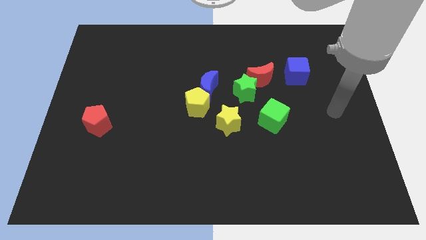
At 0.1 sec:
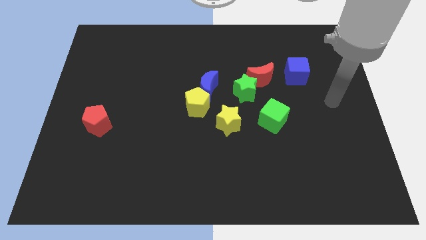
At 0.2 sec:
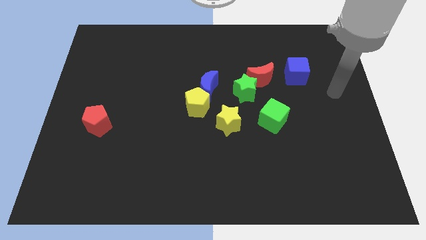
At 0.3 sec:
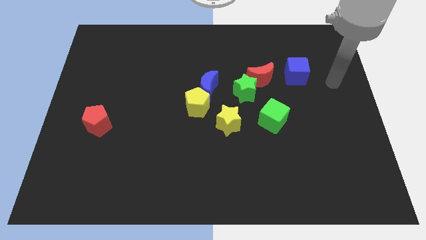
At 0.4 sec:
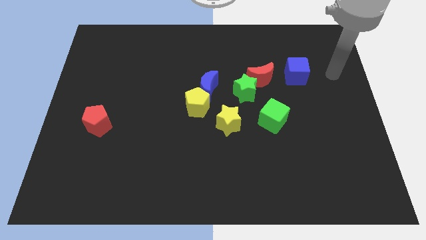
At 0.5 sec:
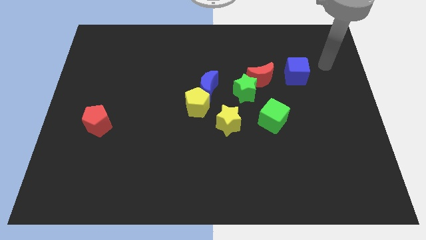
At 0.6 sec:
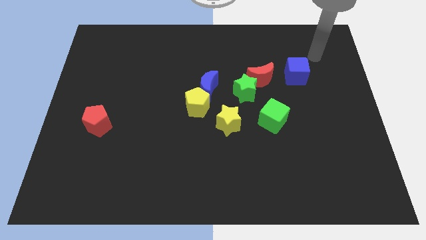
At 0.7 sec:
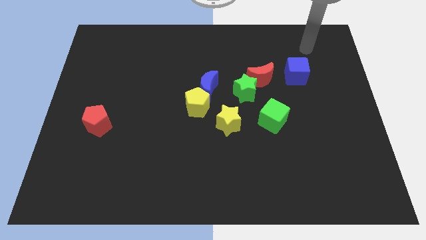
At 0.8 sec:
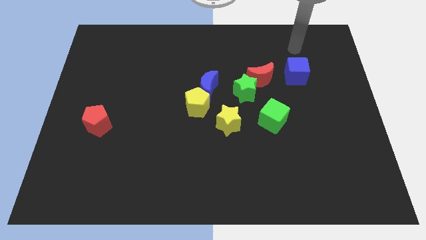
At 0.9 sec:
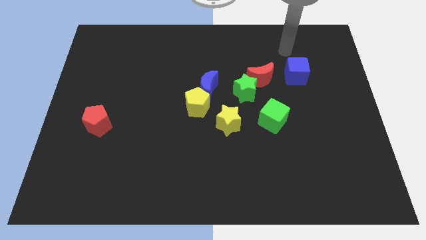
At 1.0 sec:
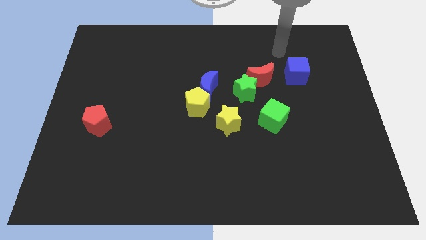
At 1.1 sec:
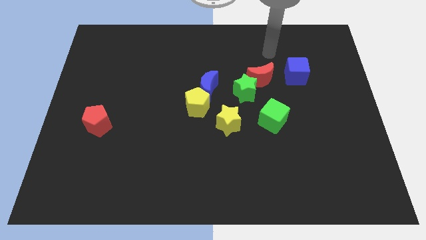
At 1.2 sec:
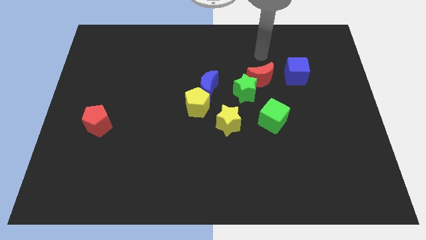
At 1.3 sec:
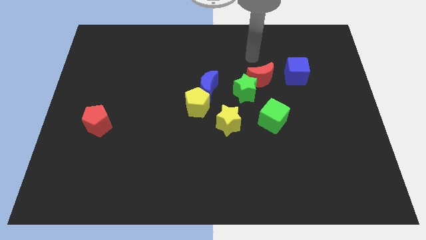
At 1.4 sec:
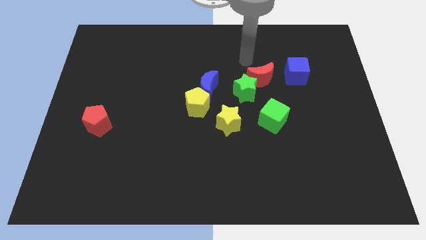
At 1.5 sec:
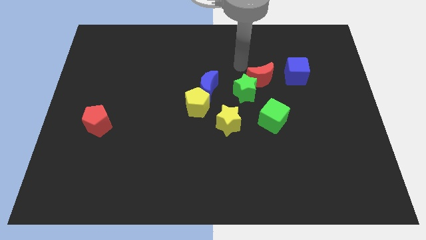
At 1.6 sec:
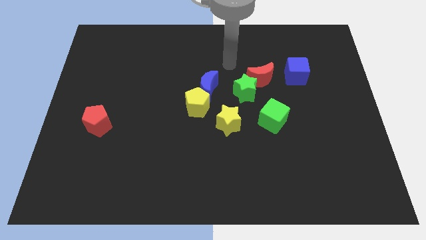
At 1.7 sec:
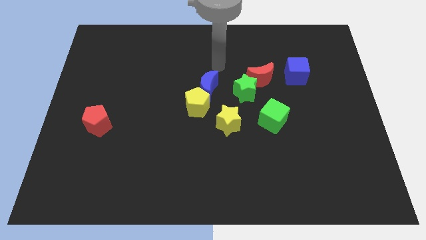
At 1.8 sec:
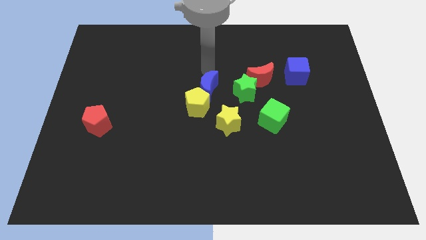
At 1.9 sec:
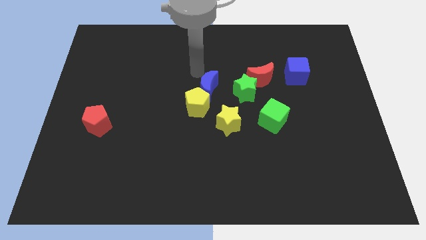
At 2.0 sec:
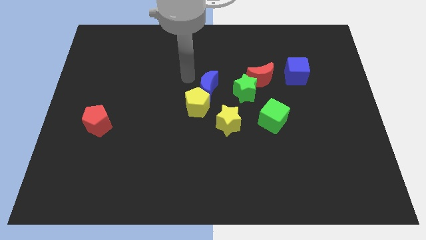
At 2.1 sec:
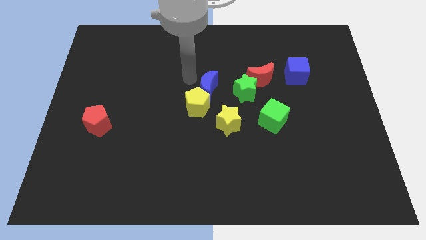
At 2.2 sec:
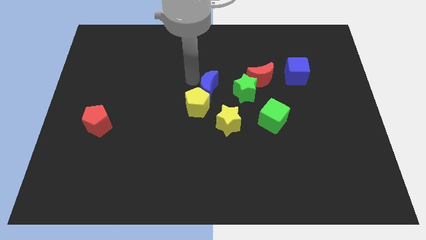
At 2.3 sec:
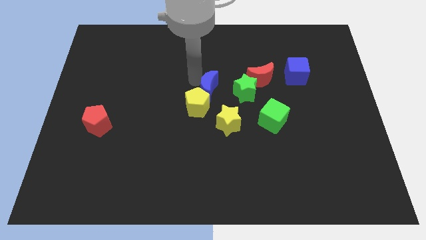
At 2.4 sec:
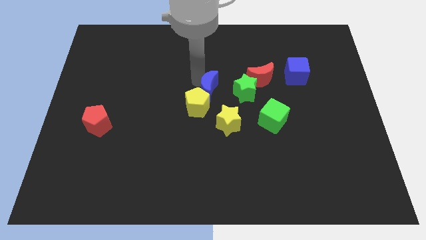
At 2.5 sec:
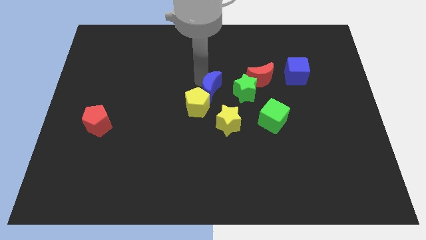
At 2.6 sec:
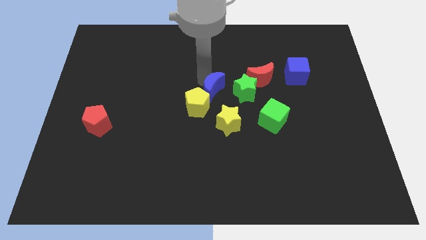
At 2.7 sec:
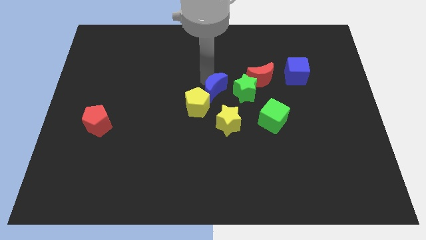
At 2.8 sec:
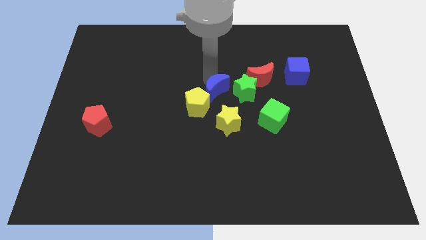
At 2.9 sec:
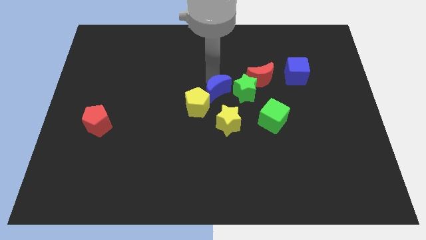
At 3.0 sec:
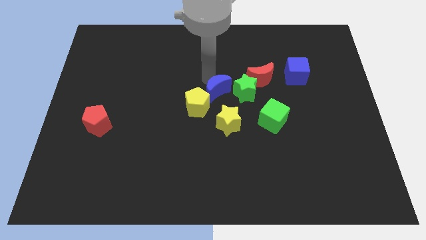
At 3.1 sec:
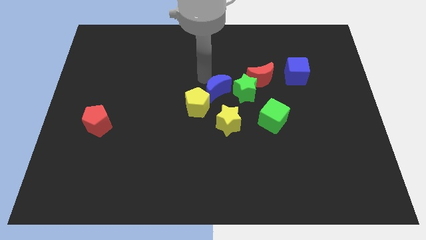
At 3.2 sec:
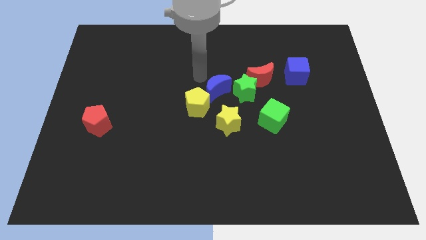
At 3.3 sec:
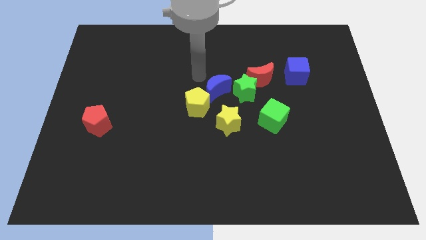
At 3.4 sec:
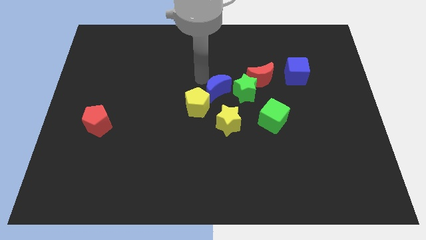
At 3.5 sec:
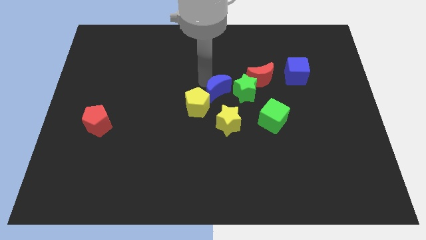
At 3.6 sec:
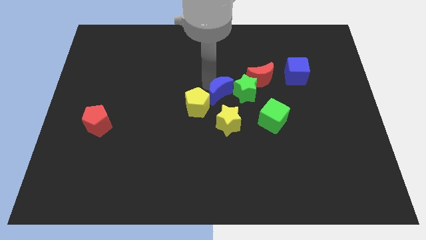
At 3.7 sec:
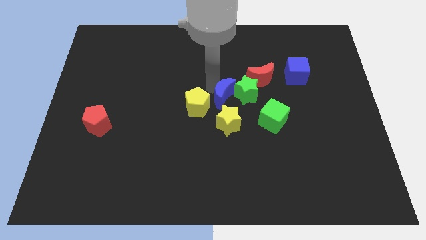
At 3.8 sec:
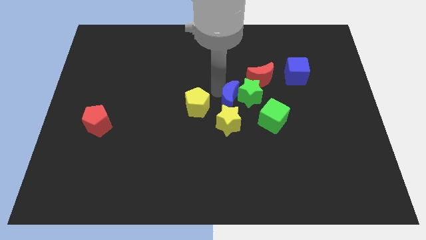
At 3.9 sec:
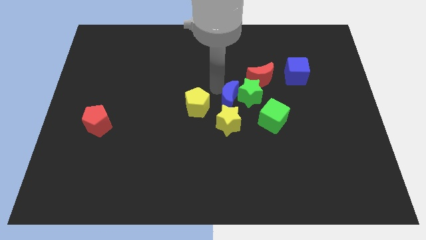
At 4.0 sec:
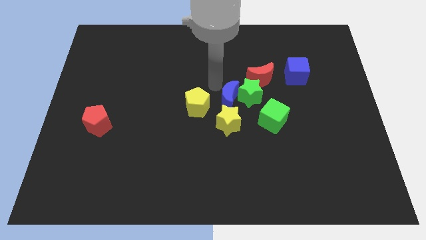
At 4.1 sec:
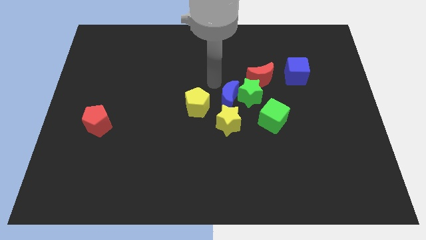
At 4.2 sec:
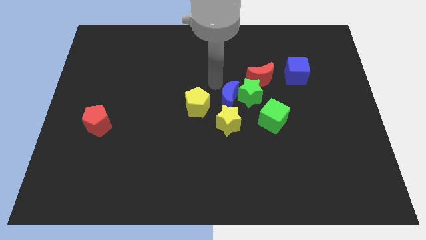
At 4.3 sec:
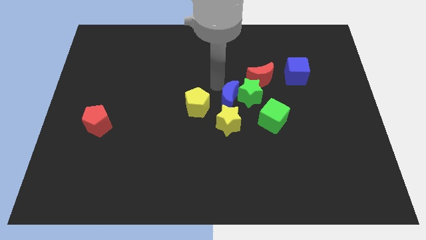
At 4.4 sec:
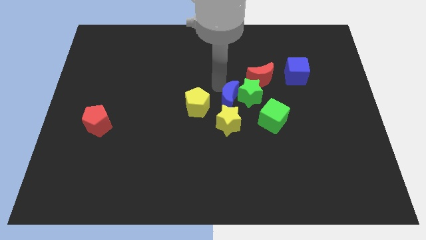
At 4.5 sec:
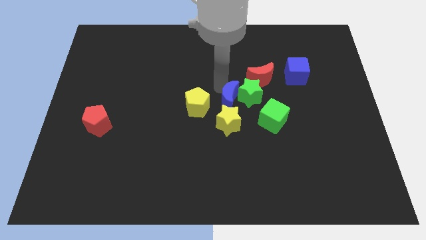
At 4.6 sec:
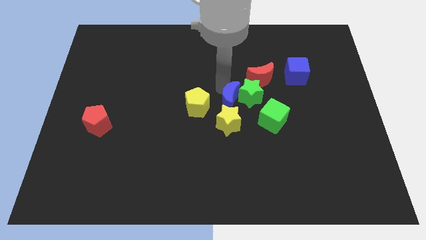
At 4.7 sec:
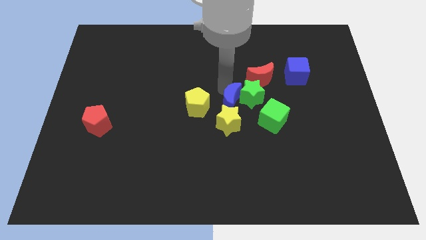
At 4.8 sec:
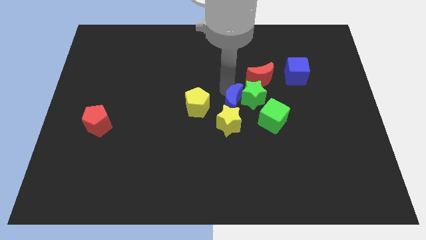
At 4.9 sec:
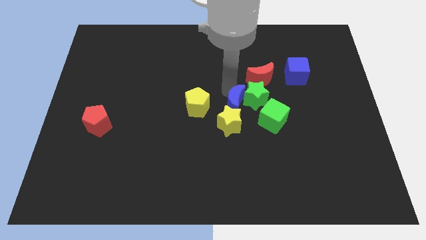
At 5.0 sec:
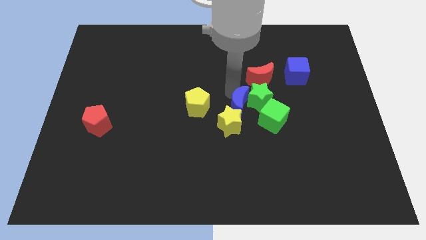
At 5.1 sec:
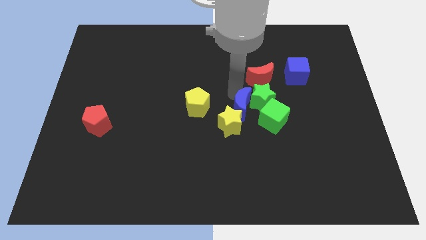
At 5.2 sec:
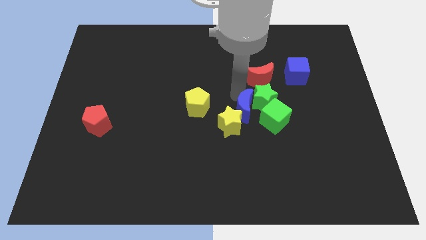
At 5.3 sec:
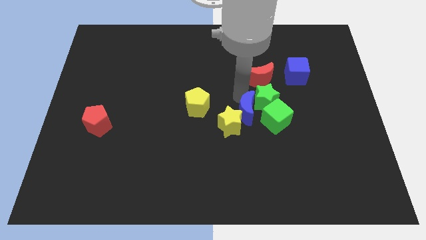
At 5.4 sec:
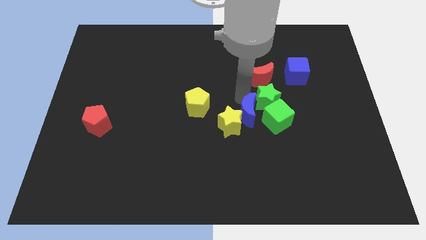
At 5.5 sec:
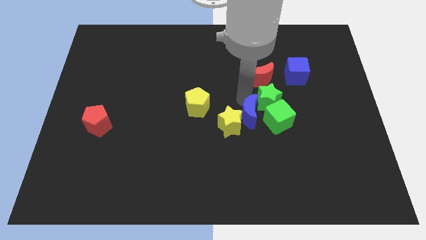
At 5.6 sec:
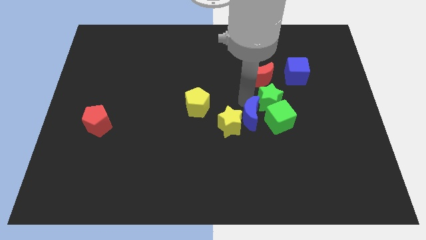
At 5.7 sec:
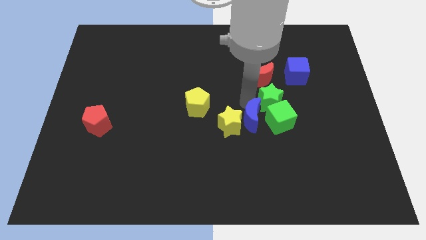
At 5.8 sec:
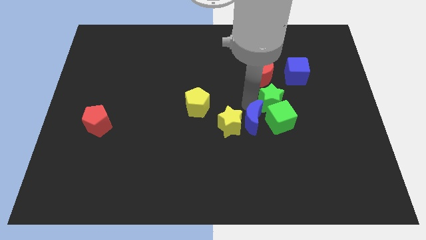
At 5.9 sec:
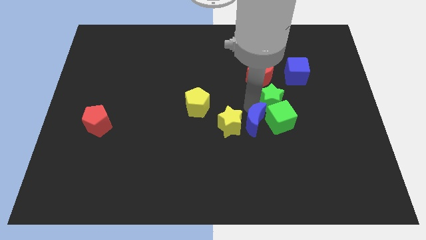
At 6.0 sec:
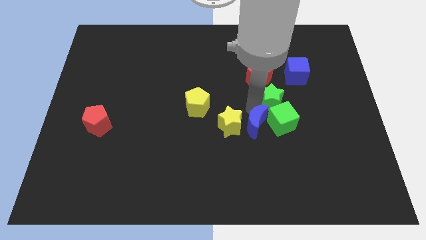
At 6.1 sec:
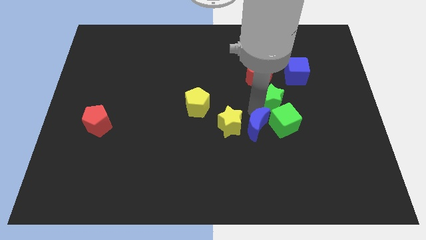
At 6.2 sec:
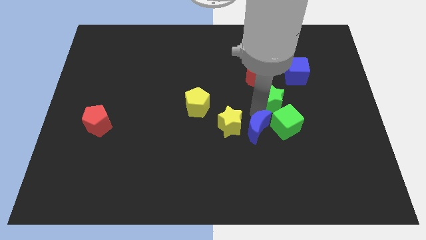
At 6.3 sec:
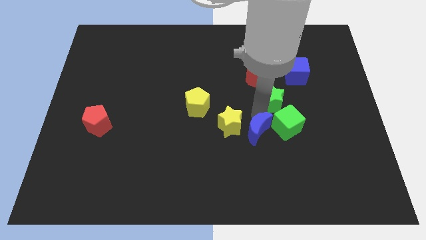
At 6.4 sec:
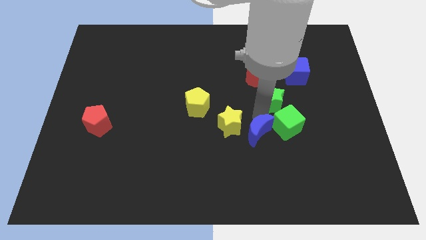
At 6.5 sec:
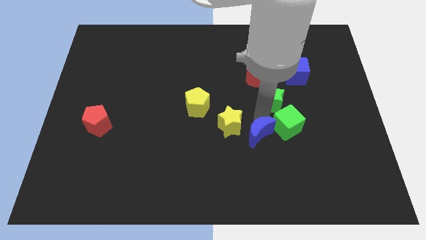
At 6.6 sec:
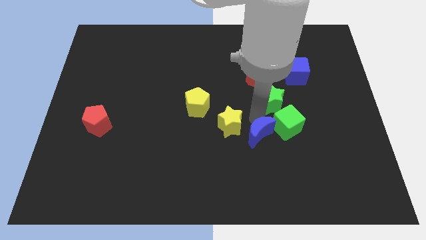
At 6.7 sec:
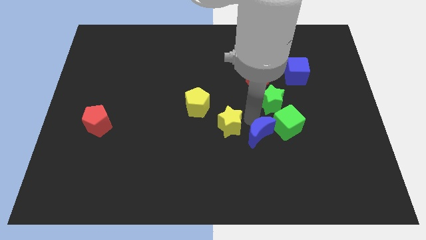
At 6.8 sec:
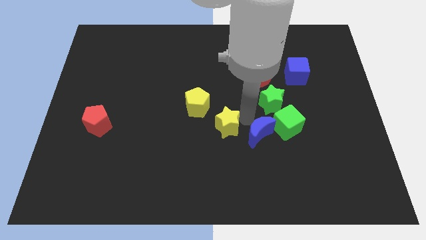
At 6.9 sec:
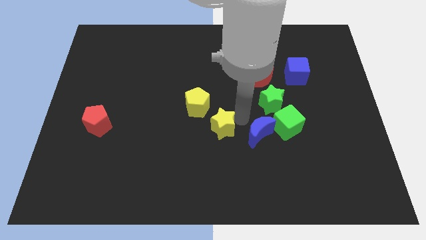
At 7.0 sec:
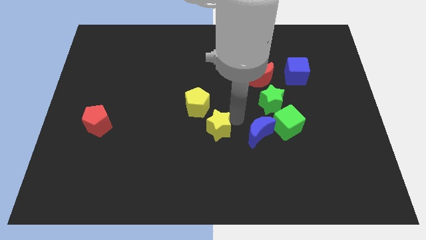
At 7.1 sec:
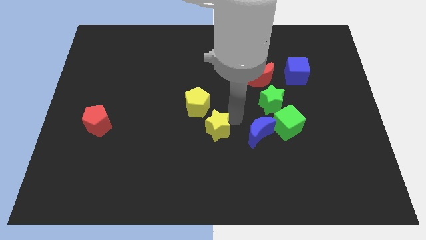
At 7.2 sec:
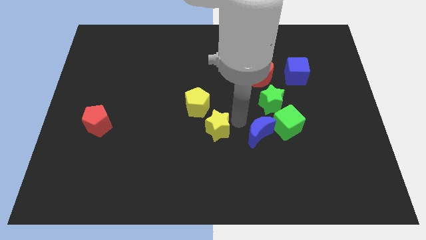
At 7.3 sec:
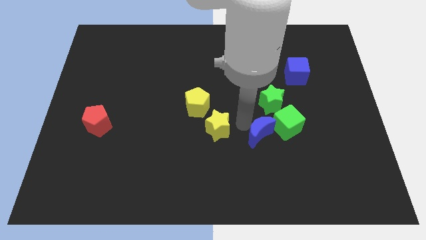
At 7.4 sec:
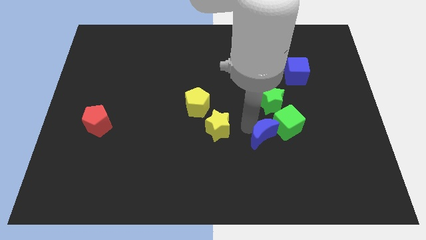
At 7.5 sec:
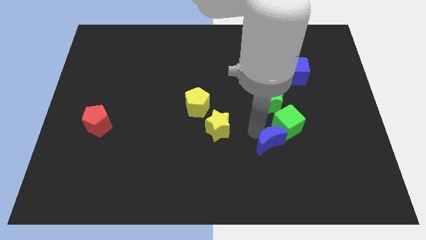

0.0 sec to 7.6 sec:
push the blue moon down and to the right diagonally

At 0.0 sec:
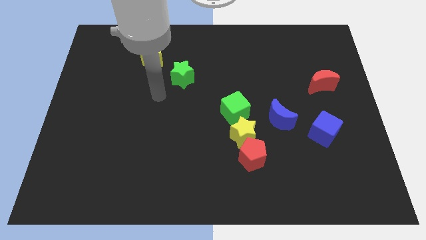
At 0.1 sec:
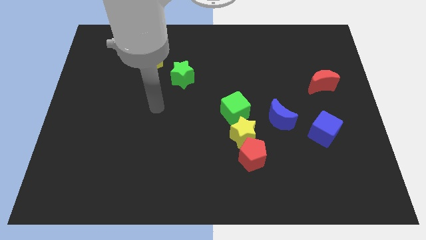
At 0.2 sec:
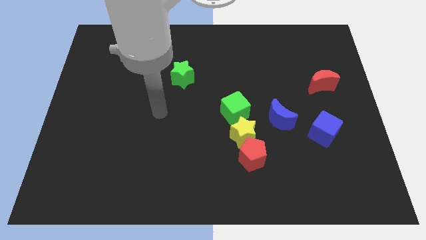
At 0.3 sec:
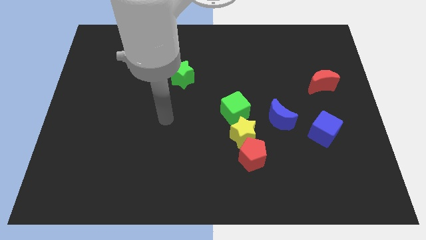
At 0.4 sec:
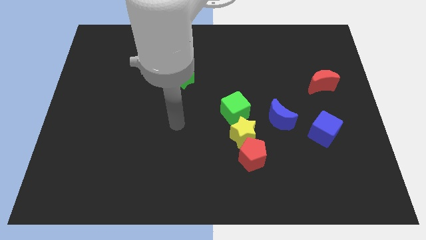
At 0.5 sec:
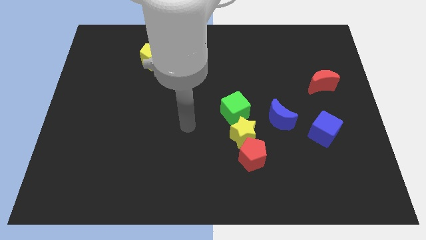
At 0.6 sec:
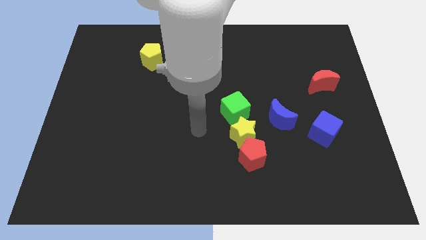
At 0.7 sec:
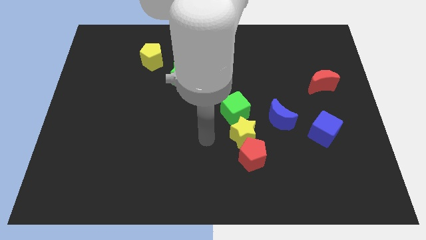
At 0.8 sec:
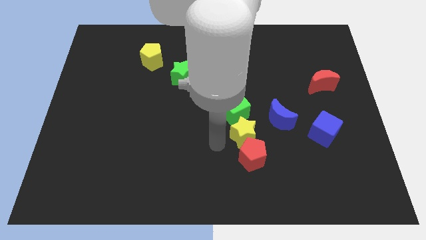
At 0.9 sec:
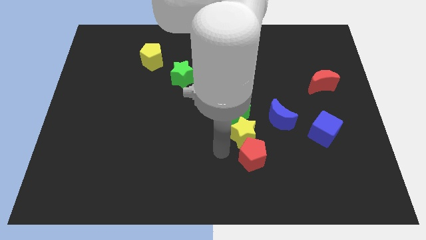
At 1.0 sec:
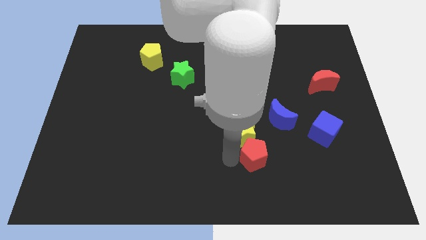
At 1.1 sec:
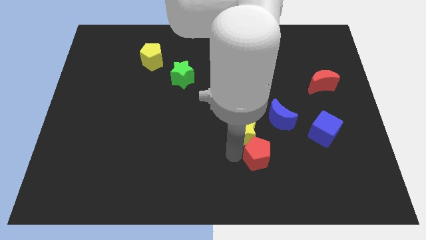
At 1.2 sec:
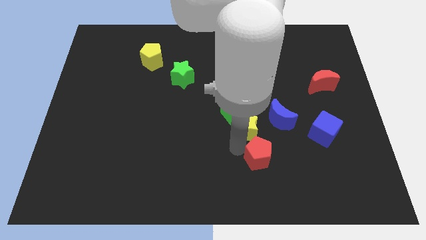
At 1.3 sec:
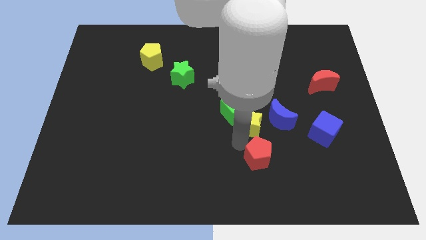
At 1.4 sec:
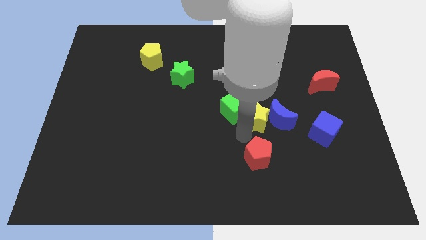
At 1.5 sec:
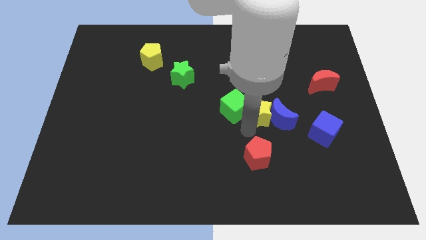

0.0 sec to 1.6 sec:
slightly push the yellow star up and then to the right
